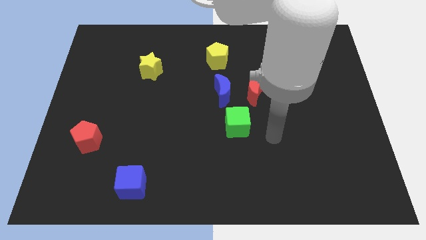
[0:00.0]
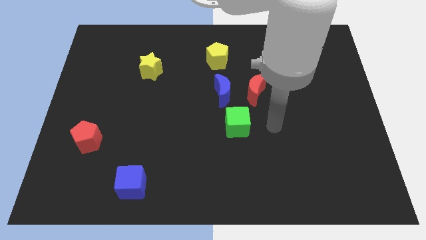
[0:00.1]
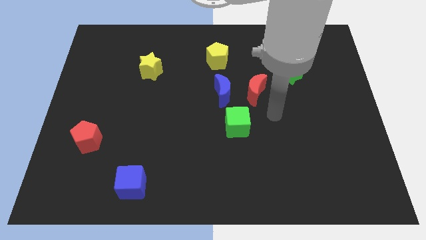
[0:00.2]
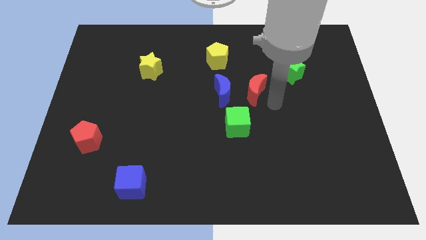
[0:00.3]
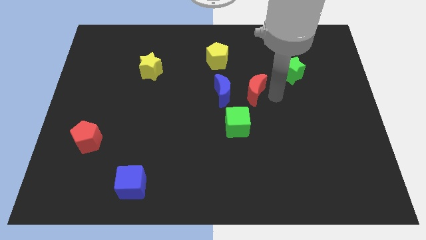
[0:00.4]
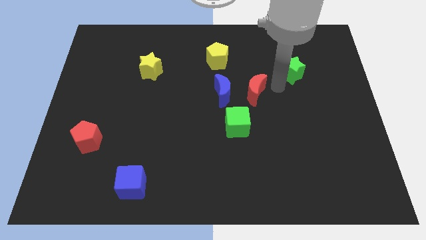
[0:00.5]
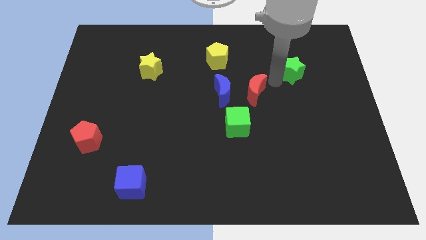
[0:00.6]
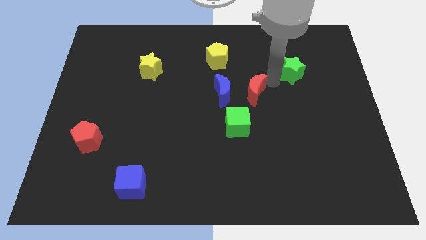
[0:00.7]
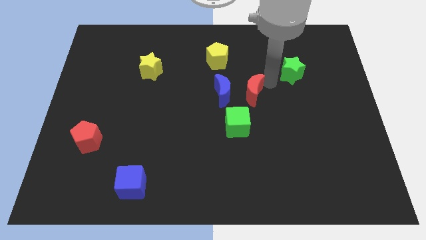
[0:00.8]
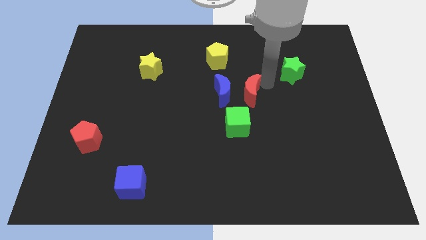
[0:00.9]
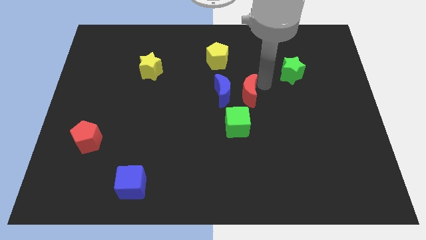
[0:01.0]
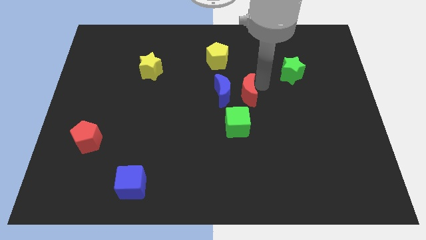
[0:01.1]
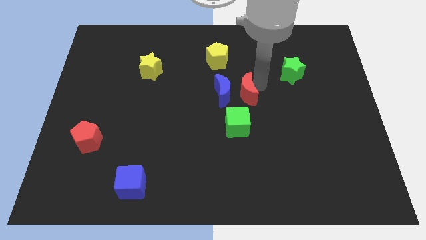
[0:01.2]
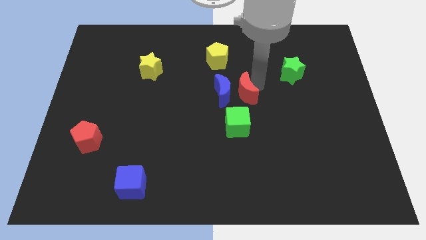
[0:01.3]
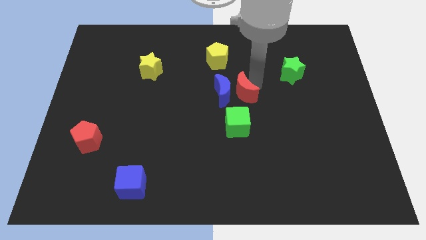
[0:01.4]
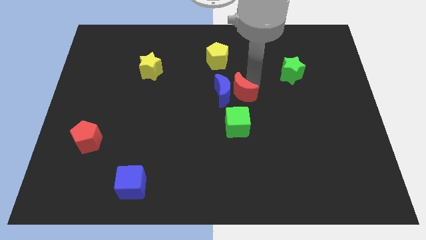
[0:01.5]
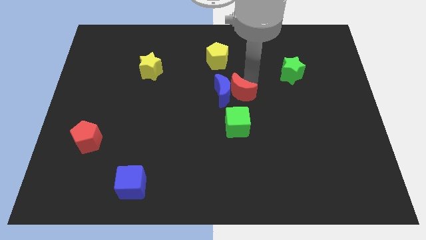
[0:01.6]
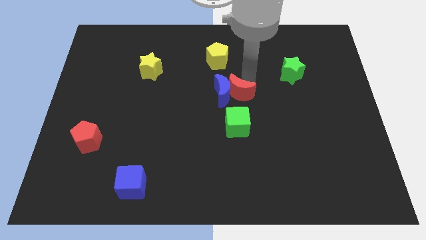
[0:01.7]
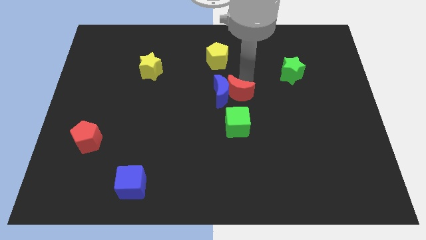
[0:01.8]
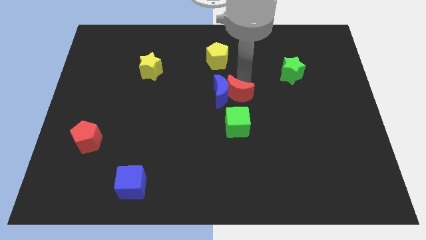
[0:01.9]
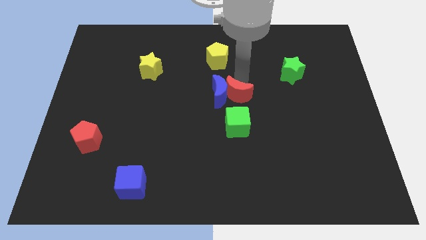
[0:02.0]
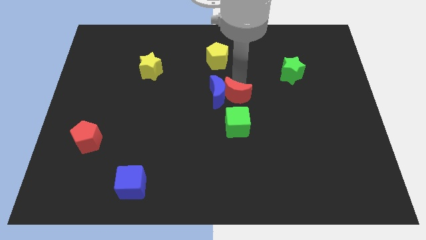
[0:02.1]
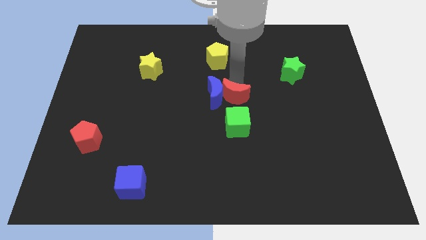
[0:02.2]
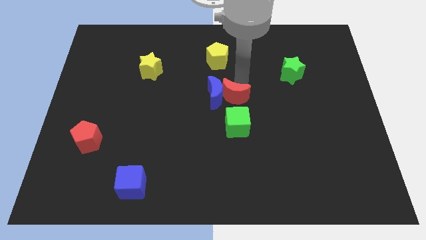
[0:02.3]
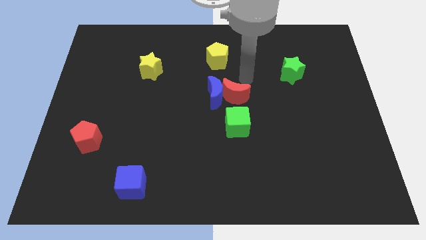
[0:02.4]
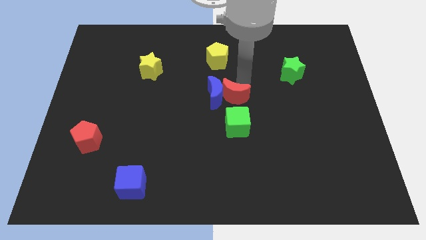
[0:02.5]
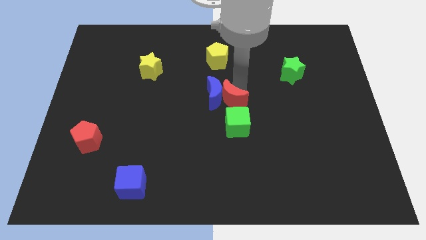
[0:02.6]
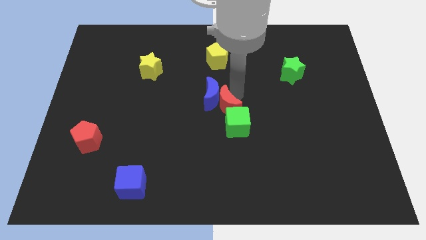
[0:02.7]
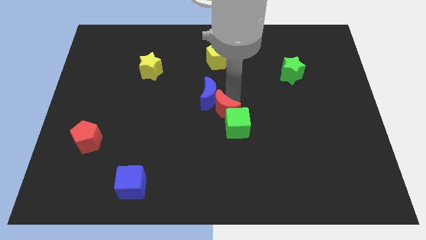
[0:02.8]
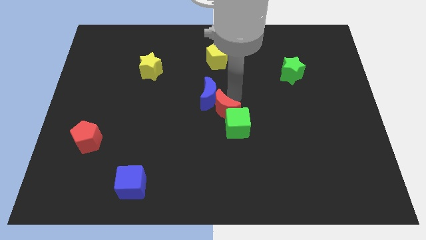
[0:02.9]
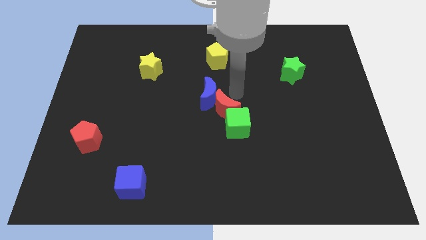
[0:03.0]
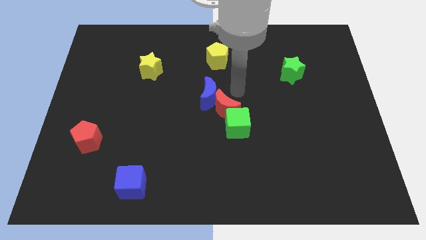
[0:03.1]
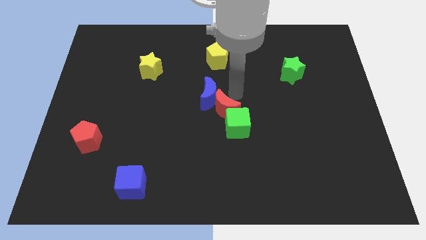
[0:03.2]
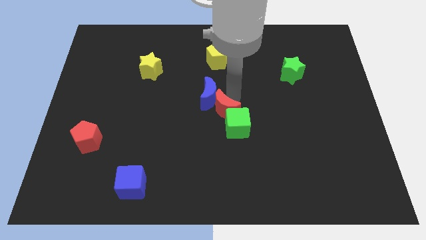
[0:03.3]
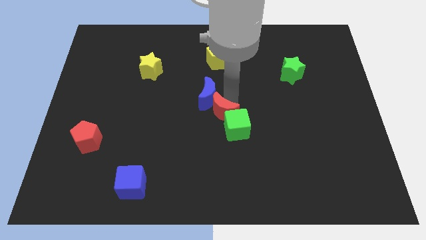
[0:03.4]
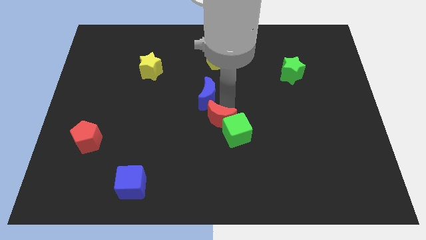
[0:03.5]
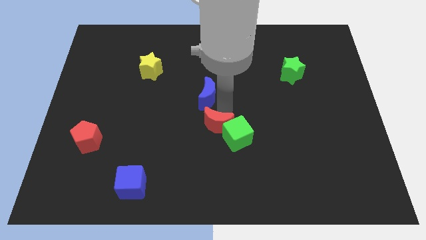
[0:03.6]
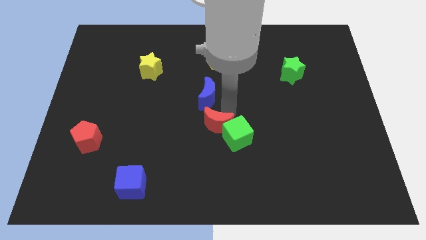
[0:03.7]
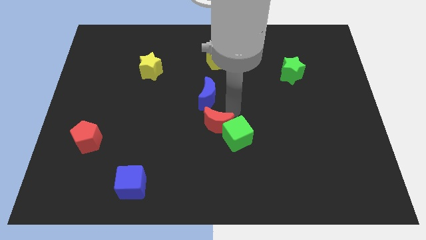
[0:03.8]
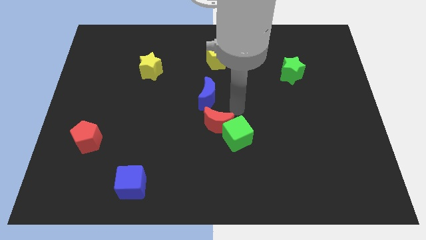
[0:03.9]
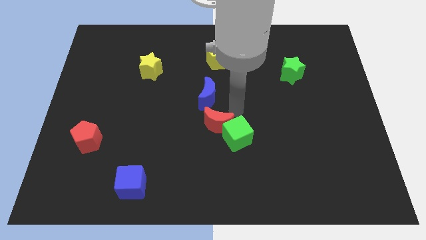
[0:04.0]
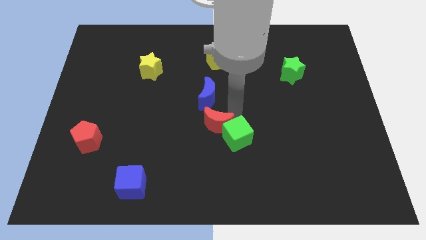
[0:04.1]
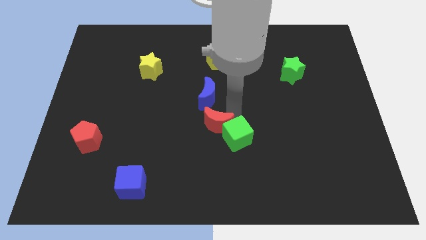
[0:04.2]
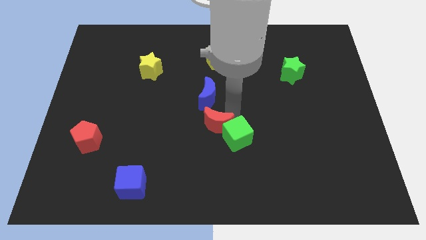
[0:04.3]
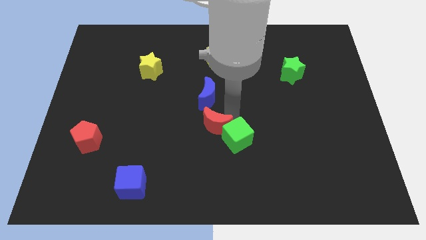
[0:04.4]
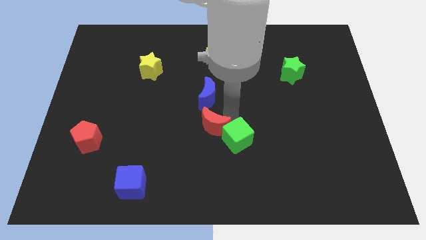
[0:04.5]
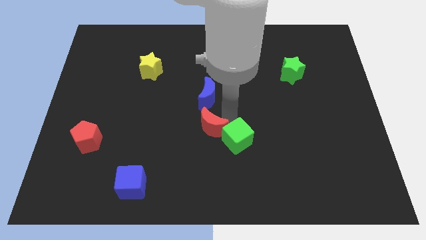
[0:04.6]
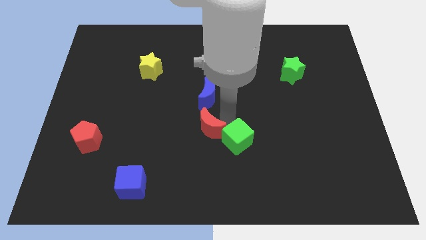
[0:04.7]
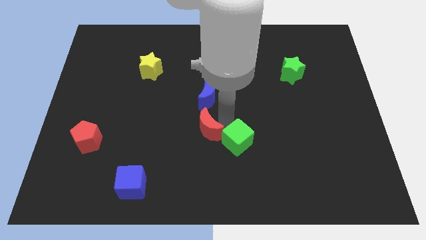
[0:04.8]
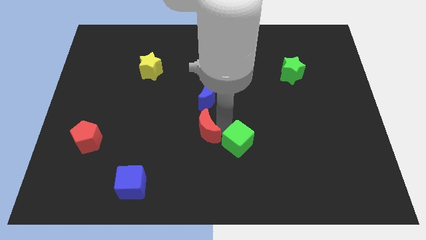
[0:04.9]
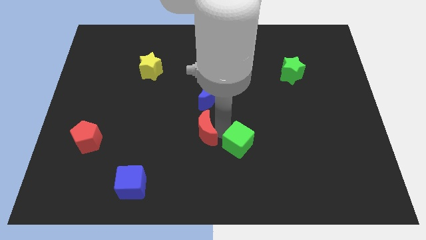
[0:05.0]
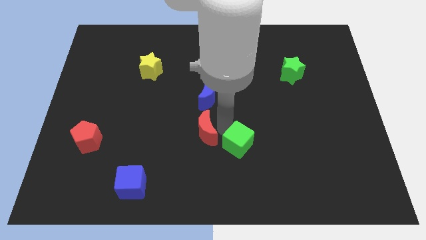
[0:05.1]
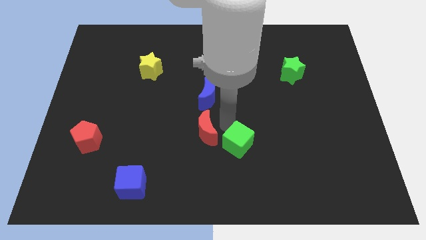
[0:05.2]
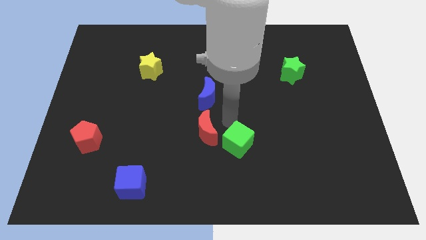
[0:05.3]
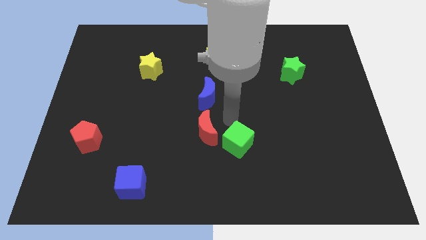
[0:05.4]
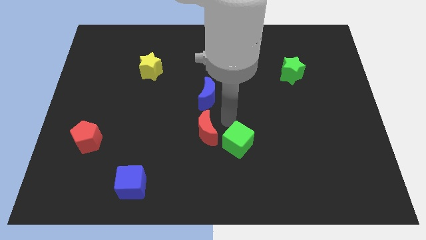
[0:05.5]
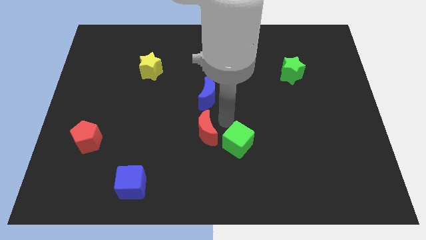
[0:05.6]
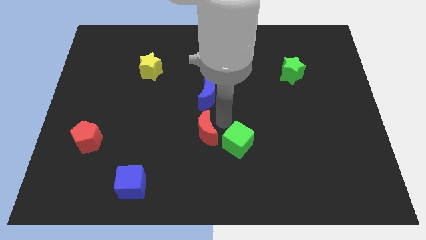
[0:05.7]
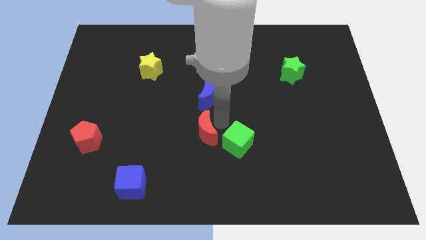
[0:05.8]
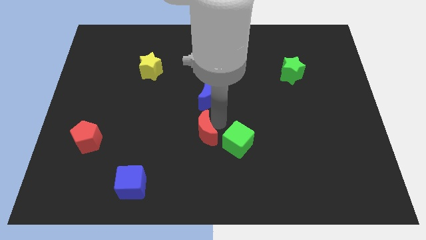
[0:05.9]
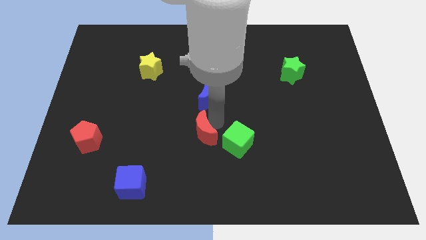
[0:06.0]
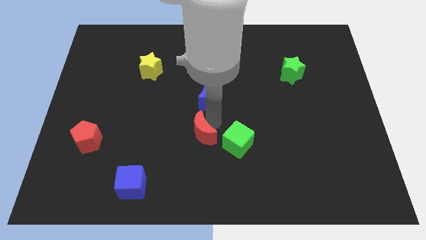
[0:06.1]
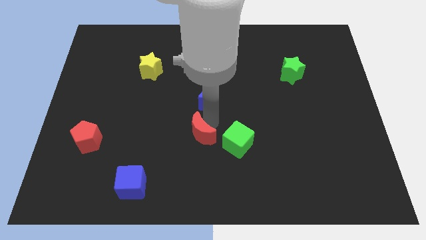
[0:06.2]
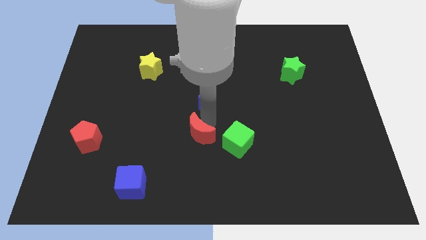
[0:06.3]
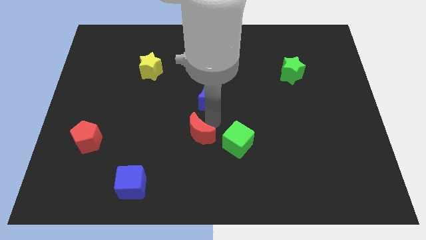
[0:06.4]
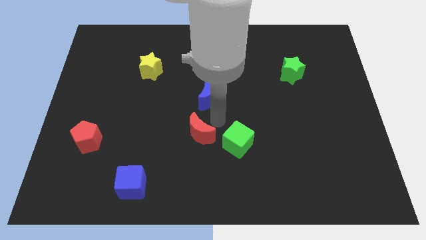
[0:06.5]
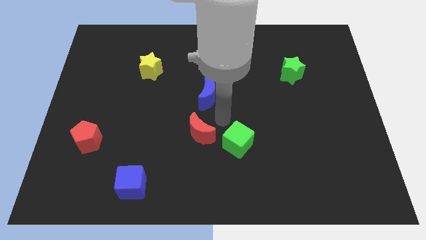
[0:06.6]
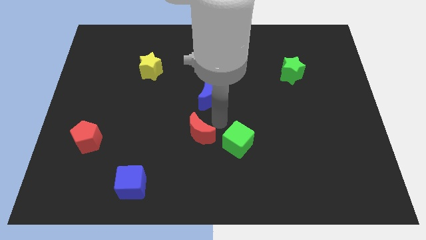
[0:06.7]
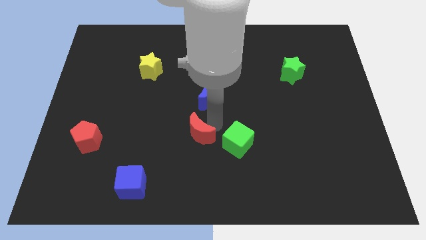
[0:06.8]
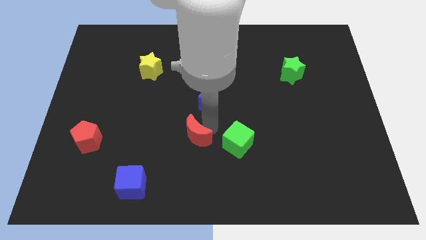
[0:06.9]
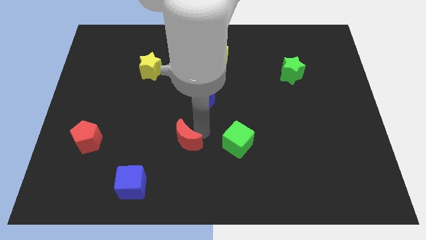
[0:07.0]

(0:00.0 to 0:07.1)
push the red moon downwards and left

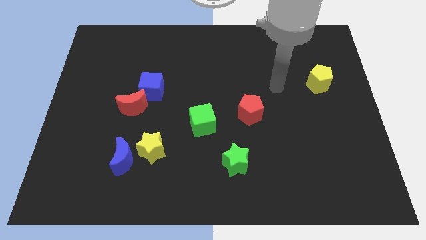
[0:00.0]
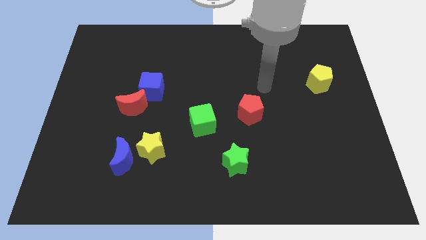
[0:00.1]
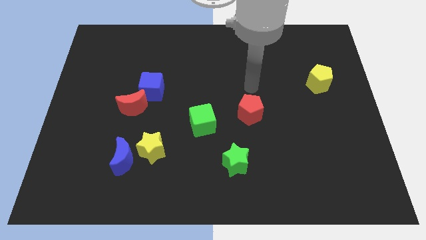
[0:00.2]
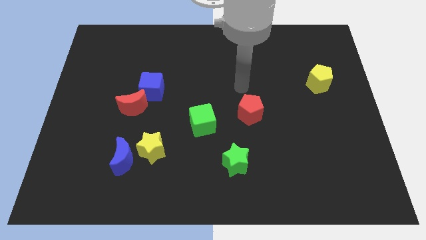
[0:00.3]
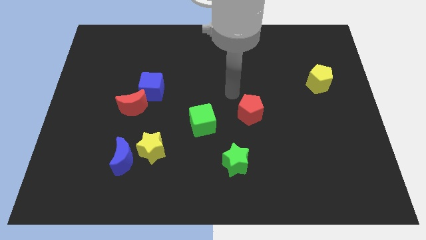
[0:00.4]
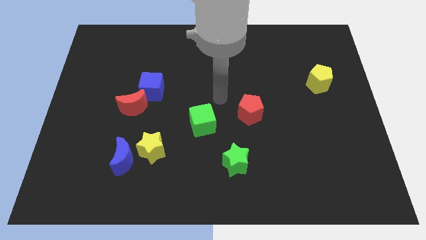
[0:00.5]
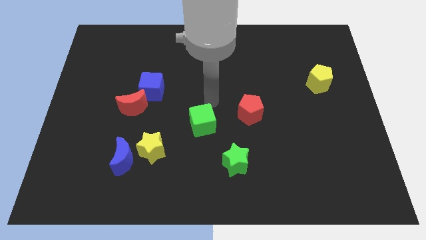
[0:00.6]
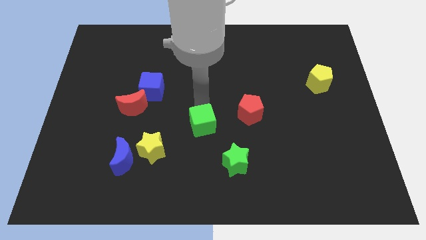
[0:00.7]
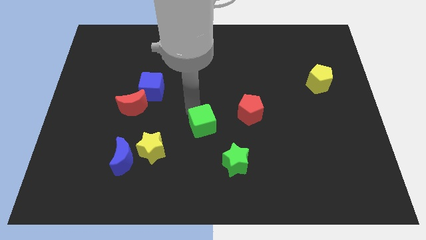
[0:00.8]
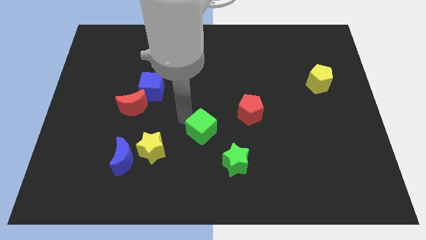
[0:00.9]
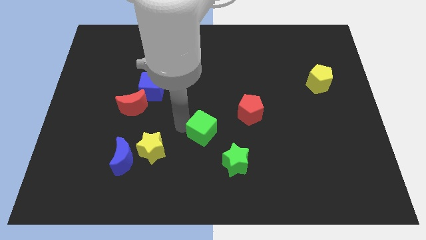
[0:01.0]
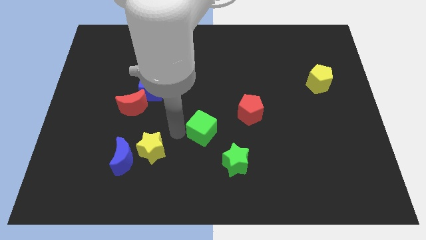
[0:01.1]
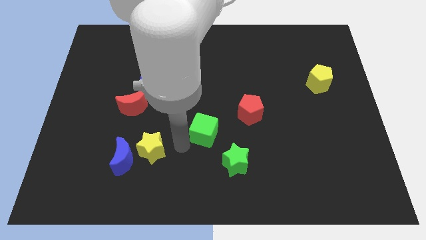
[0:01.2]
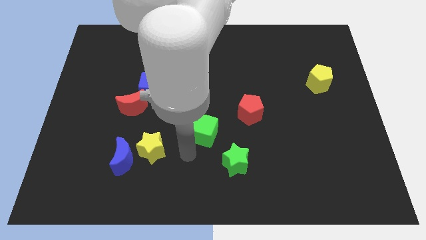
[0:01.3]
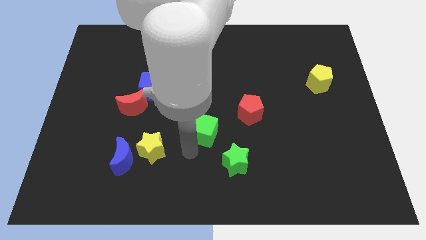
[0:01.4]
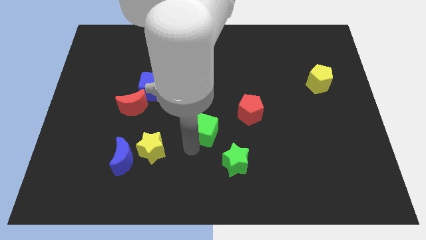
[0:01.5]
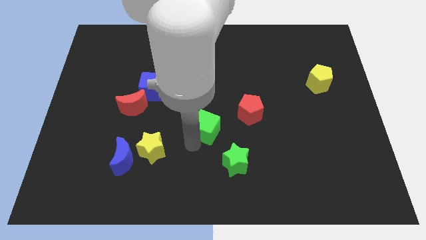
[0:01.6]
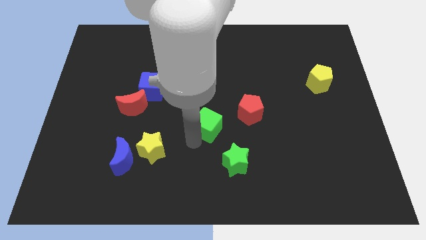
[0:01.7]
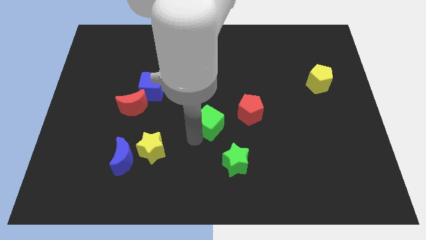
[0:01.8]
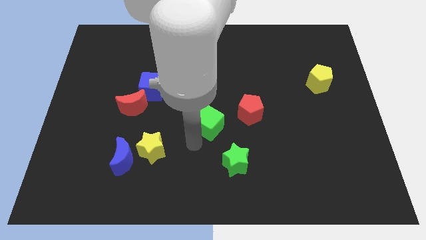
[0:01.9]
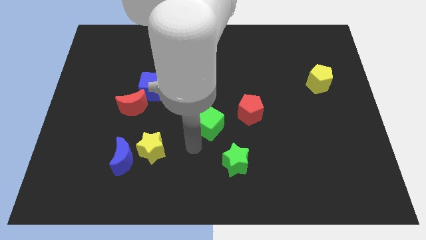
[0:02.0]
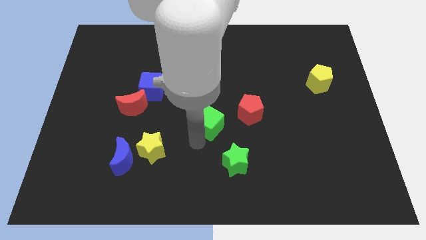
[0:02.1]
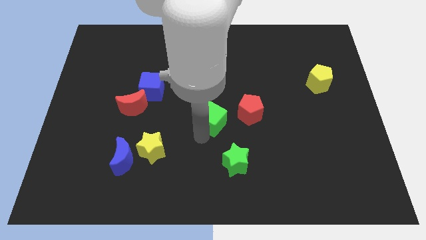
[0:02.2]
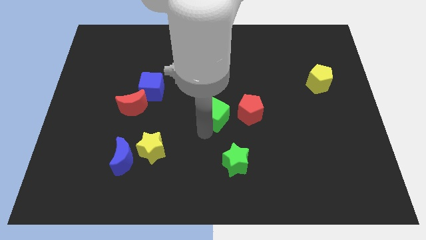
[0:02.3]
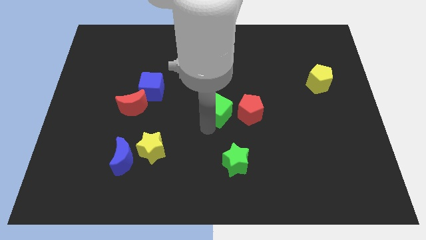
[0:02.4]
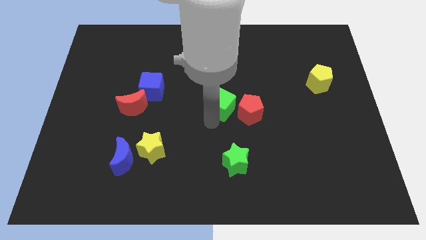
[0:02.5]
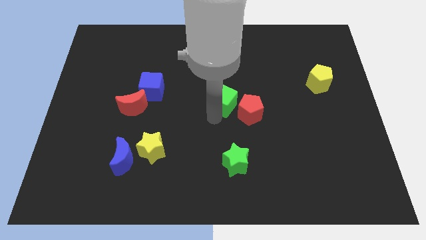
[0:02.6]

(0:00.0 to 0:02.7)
slightly push the green cube upwards and right
